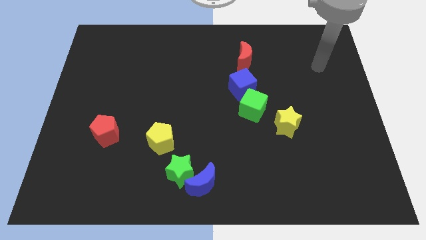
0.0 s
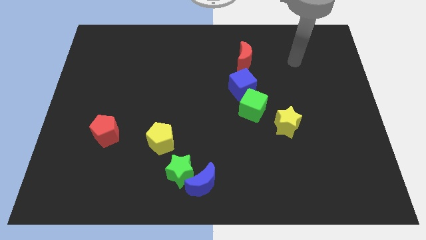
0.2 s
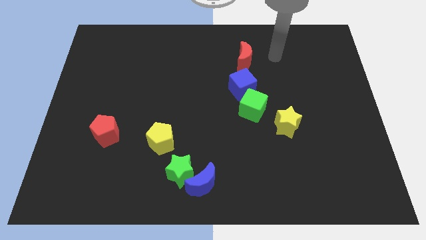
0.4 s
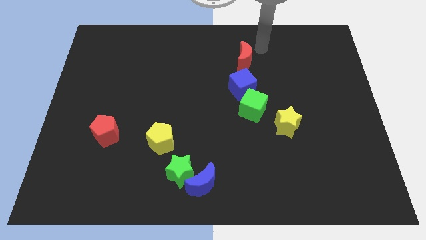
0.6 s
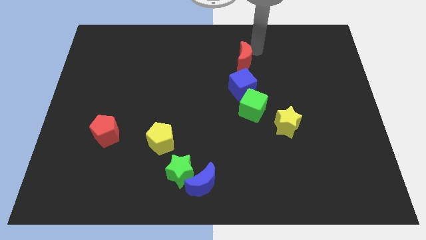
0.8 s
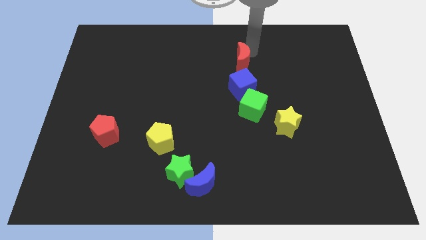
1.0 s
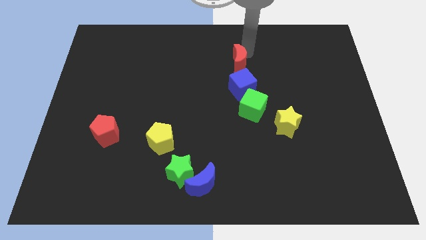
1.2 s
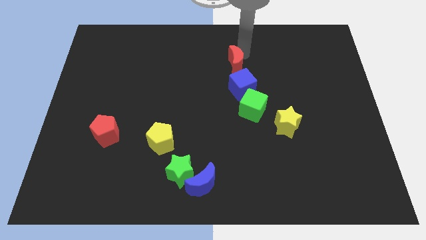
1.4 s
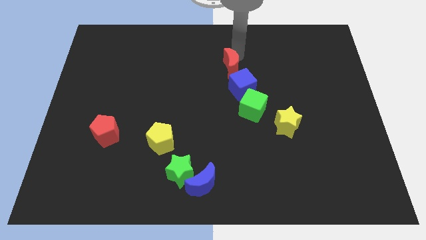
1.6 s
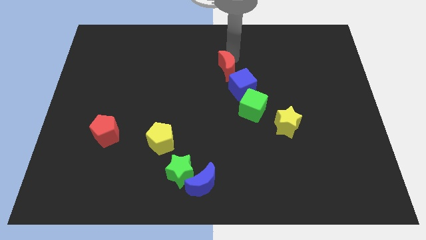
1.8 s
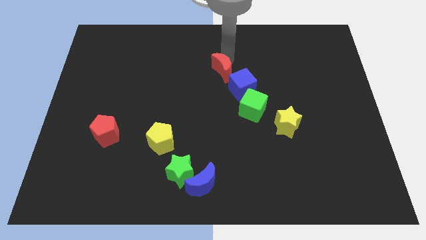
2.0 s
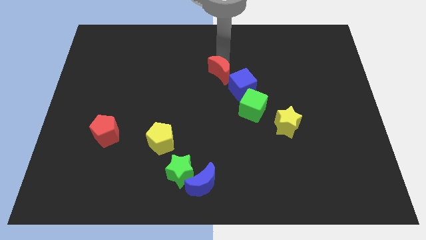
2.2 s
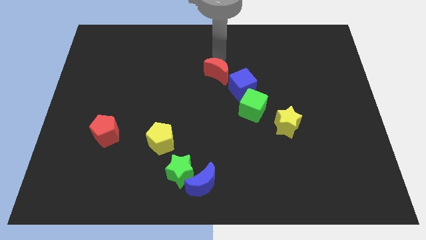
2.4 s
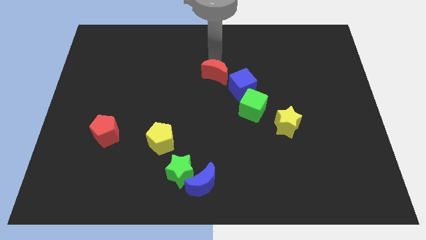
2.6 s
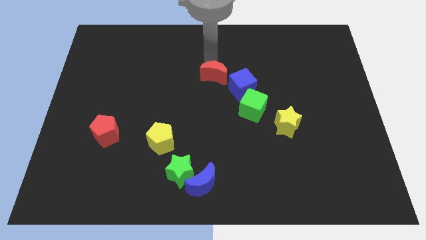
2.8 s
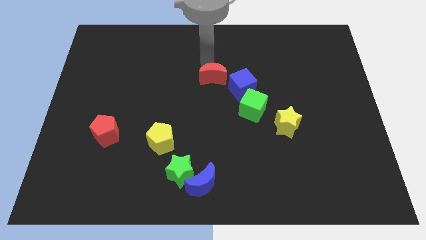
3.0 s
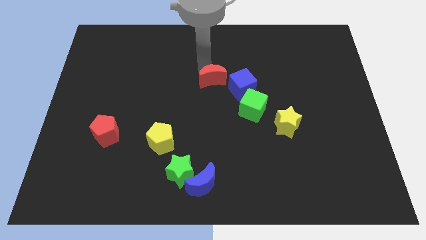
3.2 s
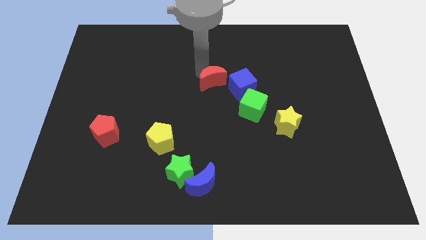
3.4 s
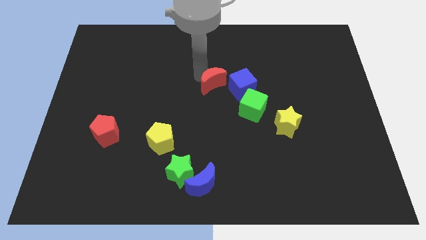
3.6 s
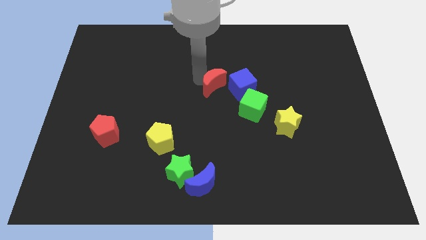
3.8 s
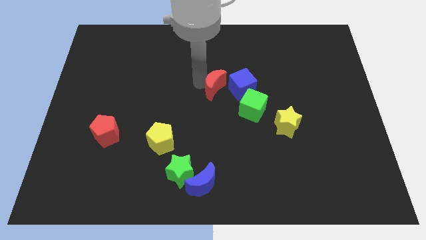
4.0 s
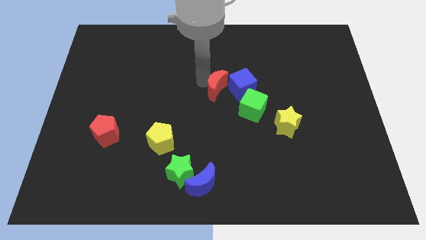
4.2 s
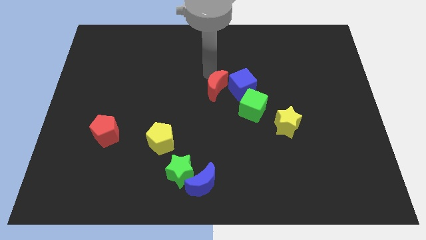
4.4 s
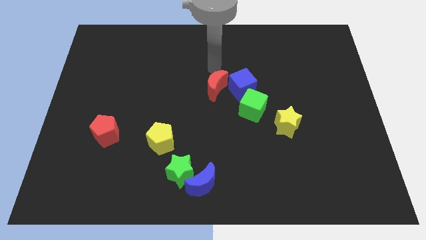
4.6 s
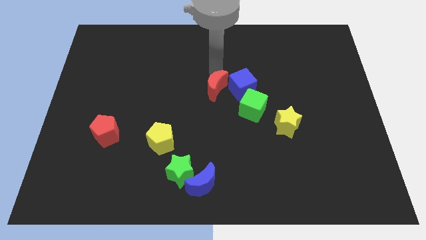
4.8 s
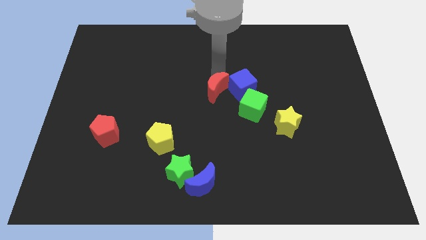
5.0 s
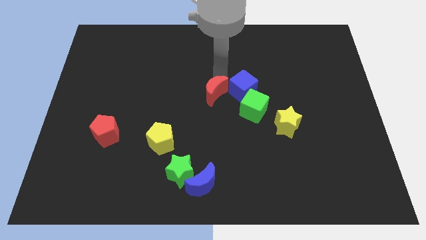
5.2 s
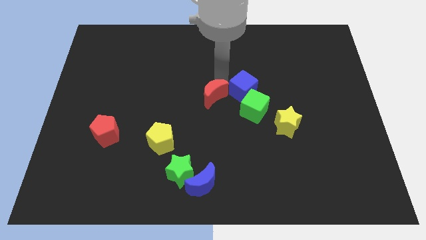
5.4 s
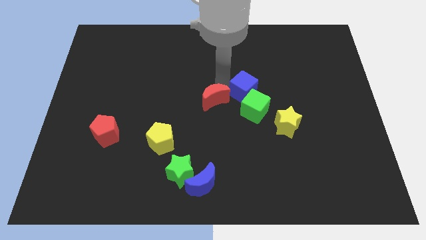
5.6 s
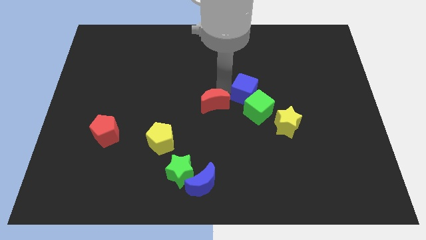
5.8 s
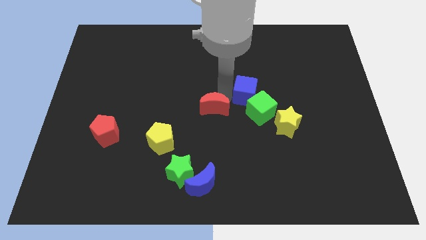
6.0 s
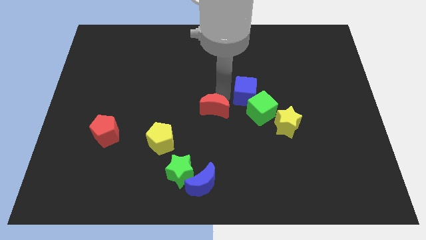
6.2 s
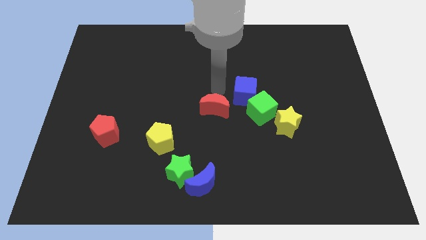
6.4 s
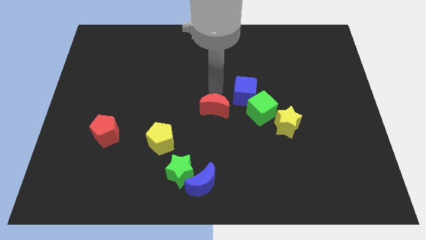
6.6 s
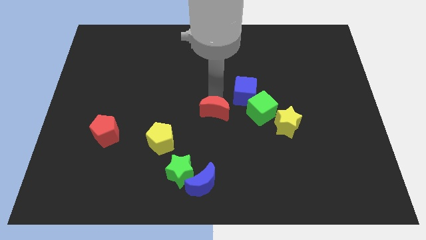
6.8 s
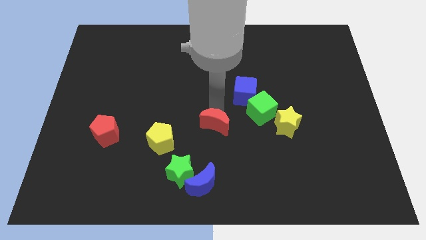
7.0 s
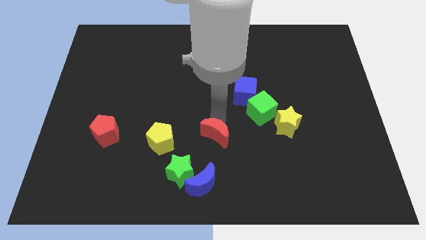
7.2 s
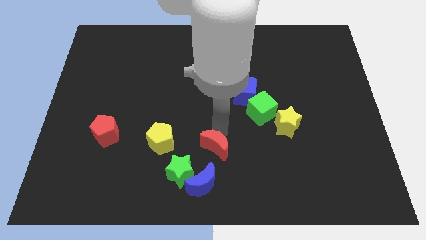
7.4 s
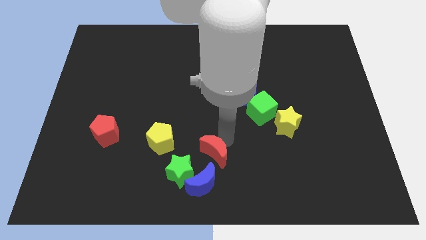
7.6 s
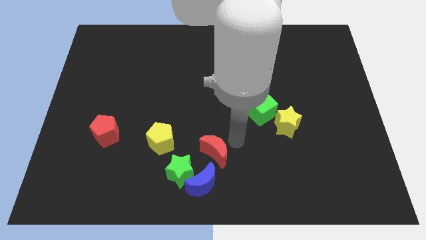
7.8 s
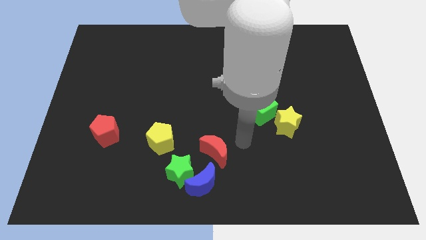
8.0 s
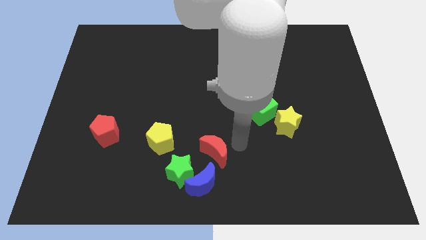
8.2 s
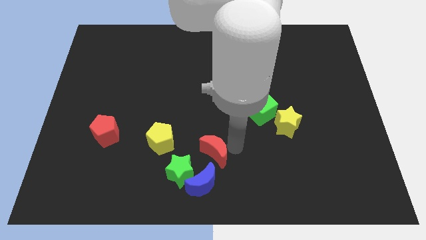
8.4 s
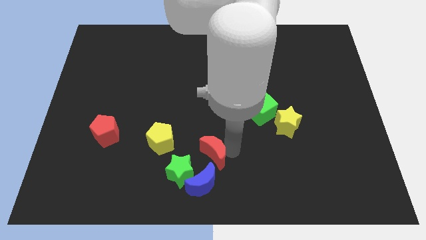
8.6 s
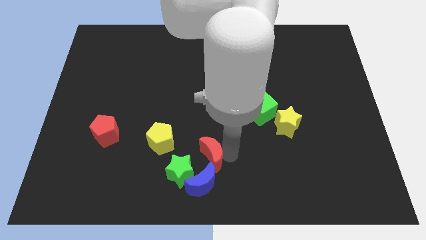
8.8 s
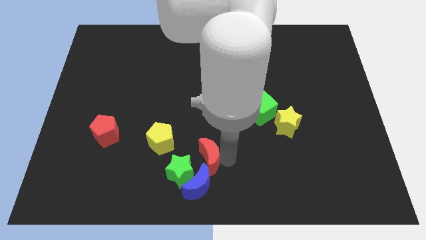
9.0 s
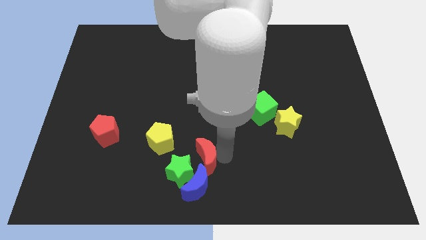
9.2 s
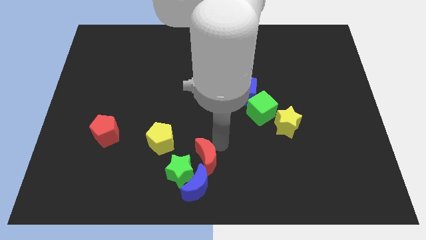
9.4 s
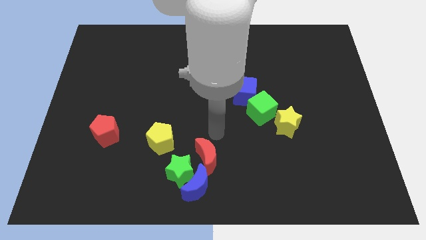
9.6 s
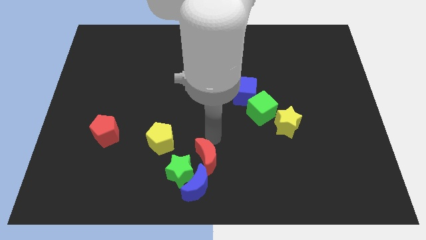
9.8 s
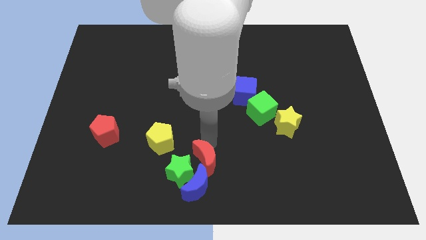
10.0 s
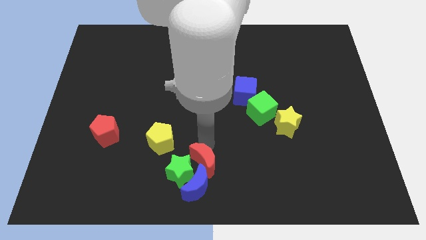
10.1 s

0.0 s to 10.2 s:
move the red moon towards the blue moon

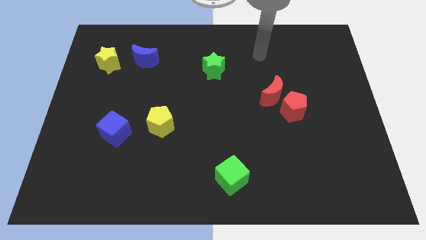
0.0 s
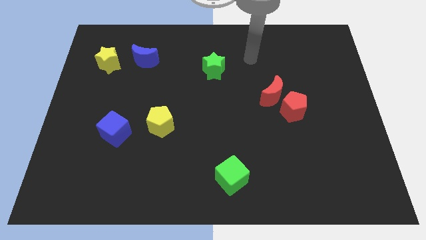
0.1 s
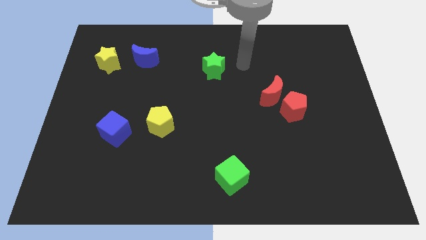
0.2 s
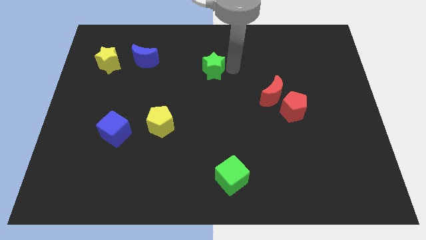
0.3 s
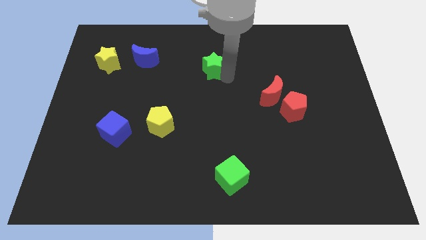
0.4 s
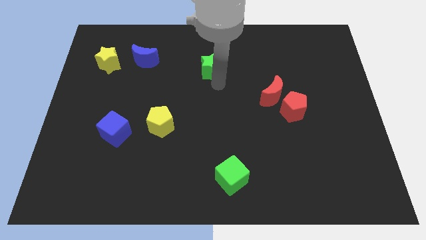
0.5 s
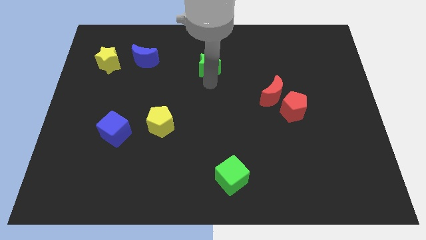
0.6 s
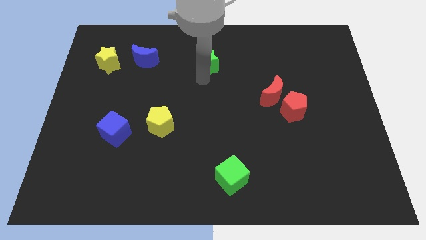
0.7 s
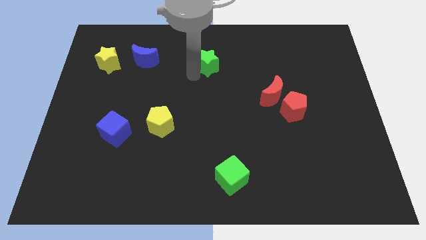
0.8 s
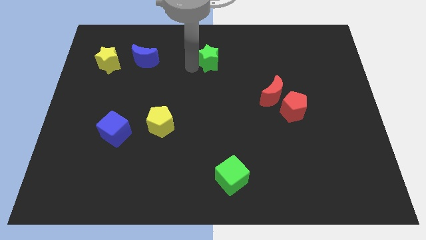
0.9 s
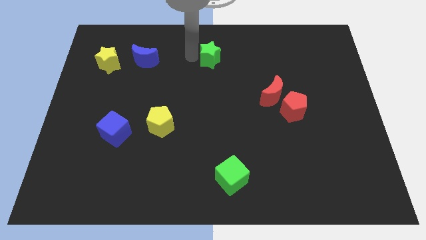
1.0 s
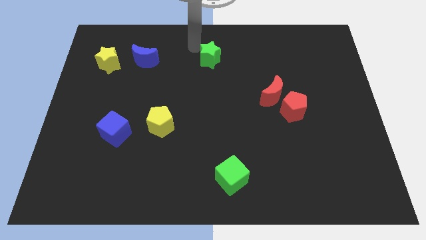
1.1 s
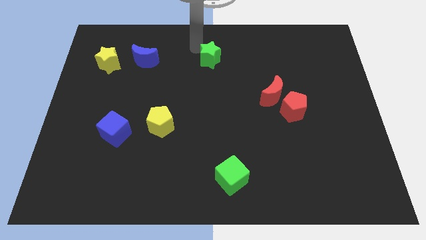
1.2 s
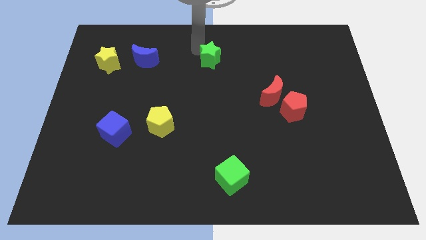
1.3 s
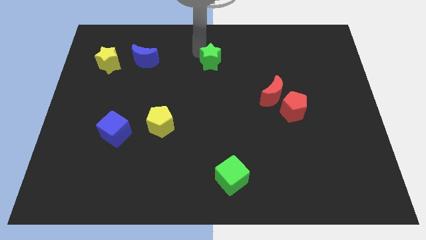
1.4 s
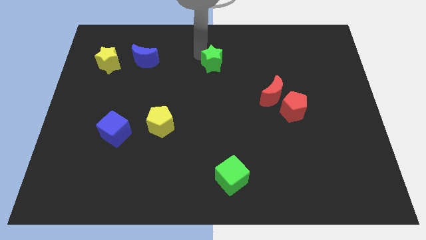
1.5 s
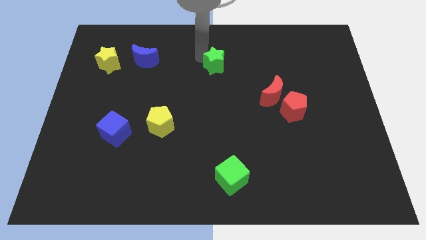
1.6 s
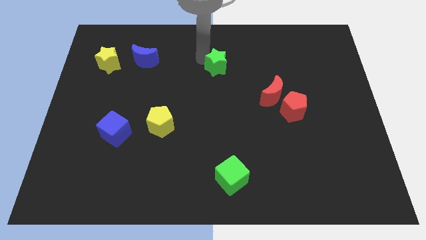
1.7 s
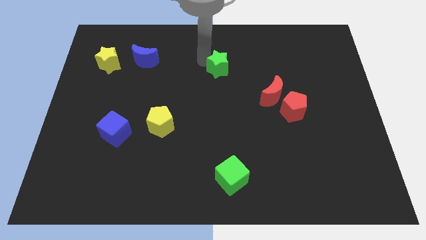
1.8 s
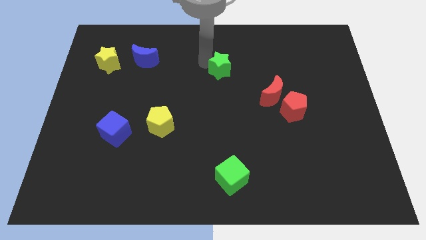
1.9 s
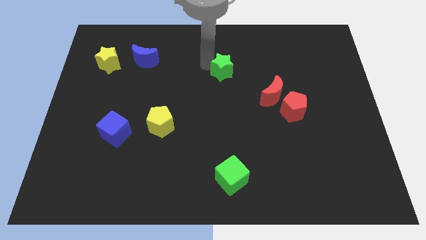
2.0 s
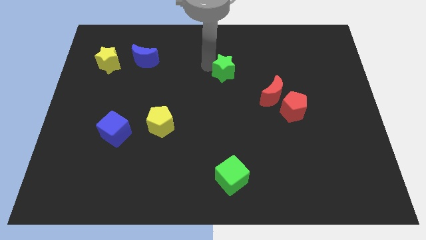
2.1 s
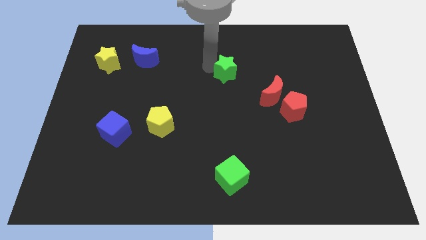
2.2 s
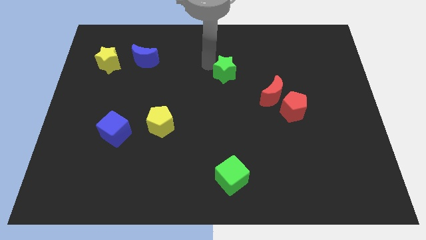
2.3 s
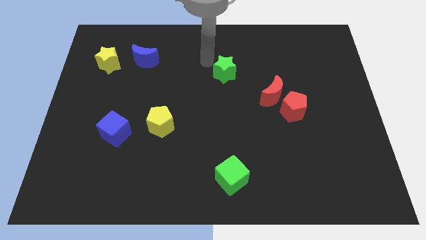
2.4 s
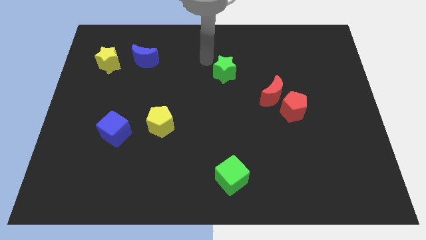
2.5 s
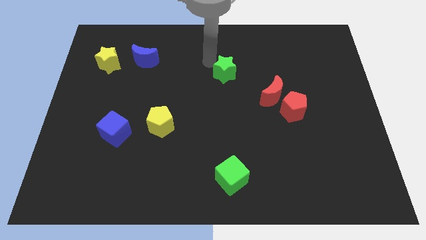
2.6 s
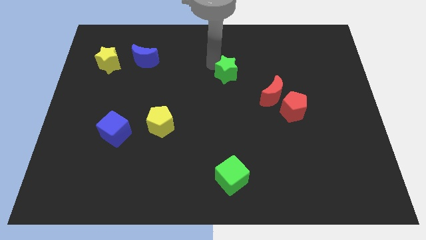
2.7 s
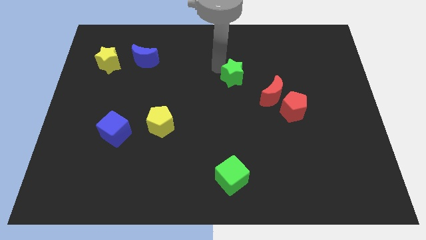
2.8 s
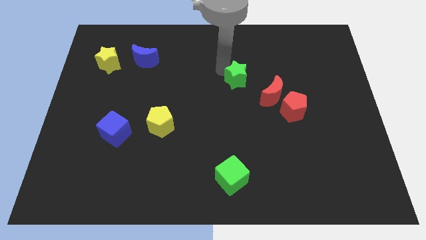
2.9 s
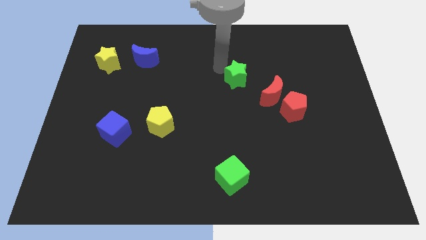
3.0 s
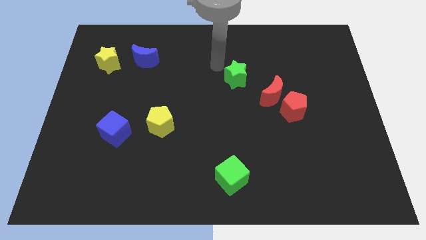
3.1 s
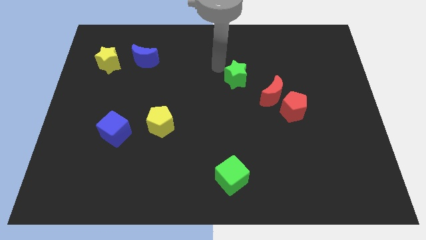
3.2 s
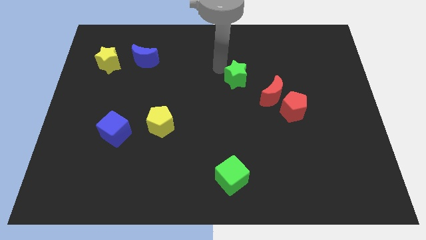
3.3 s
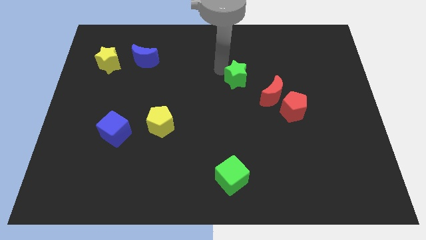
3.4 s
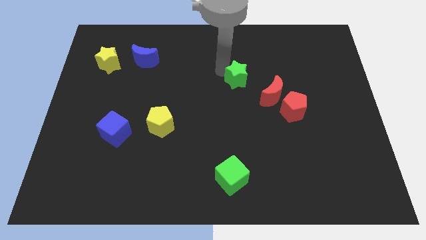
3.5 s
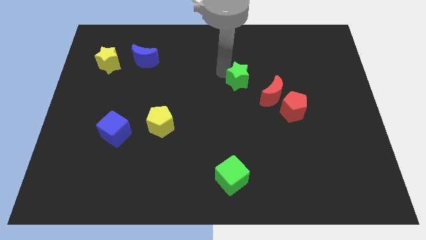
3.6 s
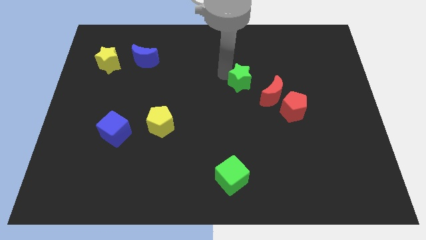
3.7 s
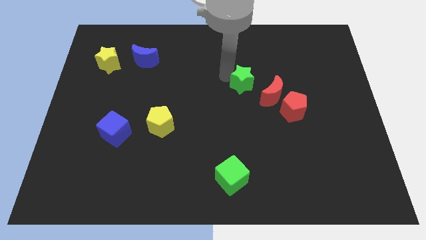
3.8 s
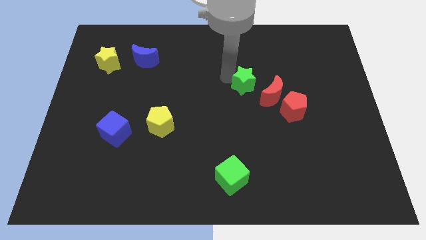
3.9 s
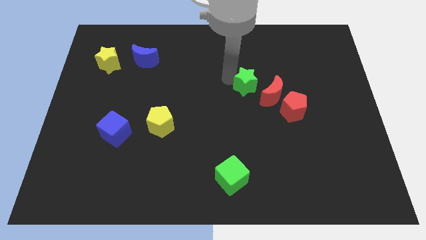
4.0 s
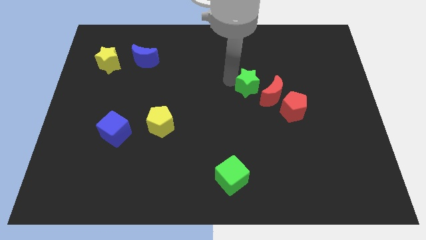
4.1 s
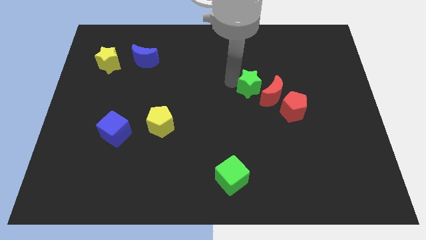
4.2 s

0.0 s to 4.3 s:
slide the green star next to the red moon
